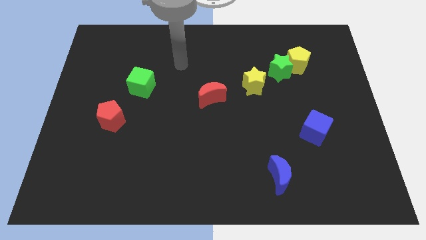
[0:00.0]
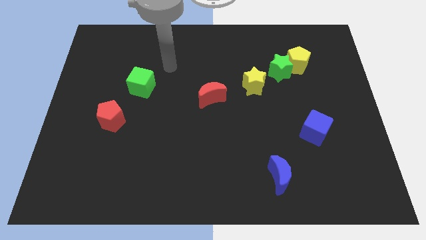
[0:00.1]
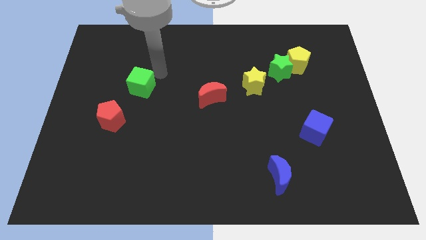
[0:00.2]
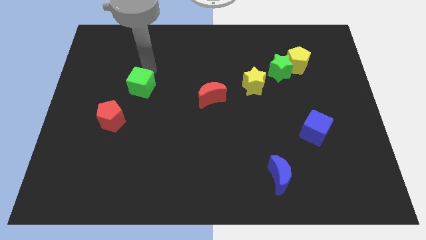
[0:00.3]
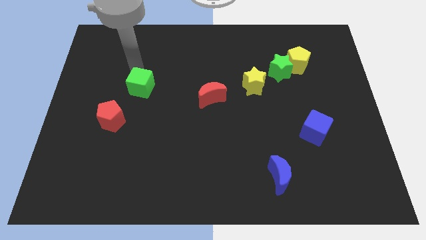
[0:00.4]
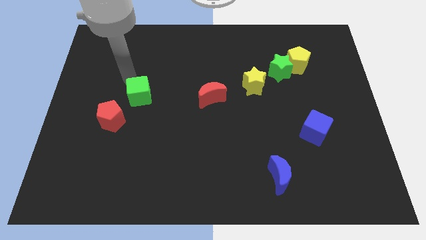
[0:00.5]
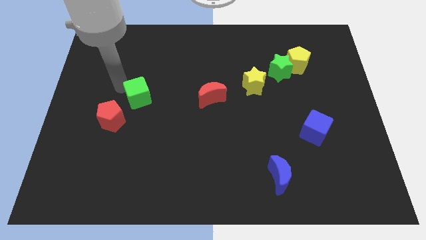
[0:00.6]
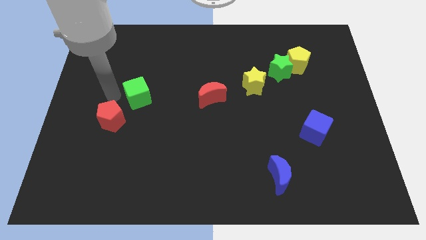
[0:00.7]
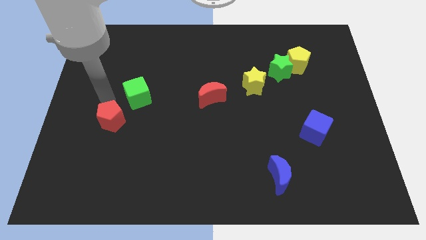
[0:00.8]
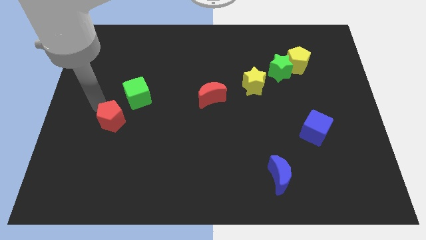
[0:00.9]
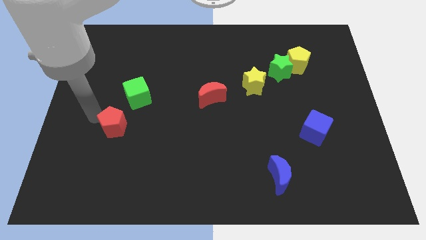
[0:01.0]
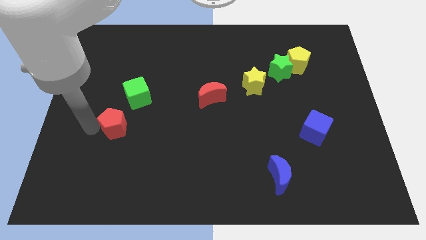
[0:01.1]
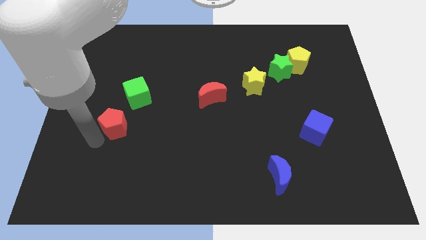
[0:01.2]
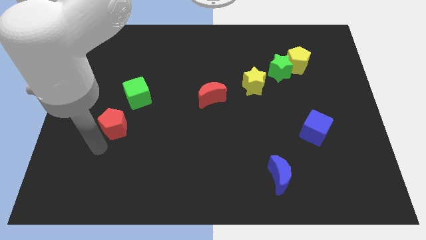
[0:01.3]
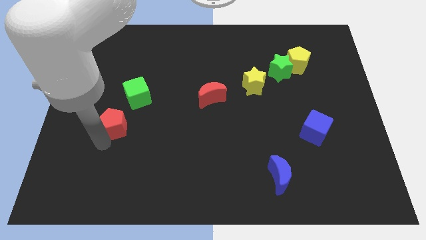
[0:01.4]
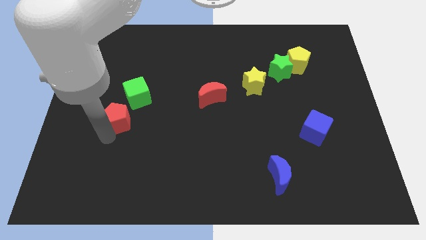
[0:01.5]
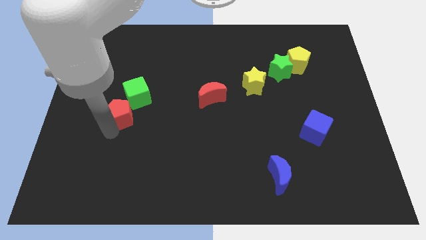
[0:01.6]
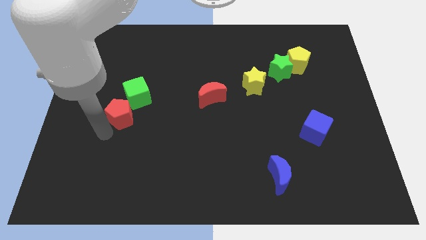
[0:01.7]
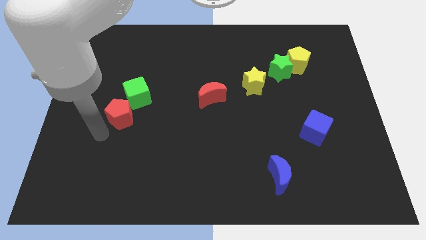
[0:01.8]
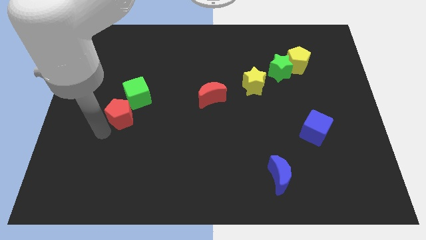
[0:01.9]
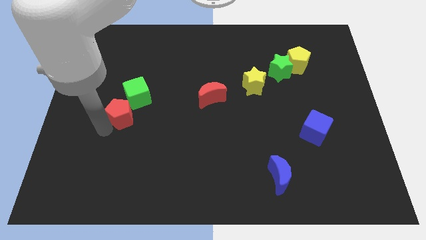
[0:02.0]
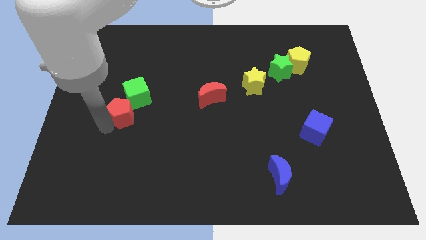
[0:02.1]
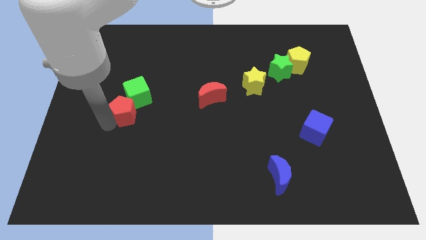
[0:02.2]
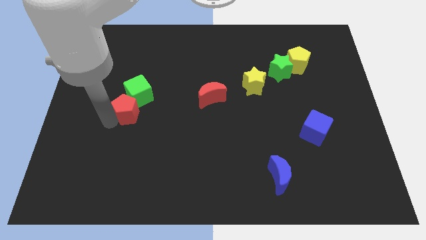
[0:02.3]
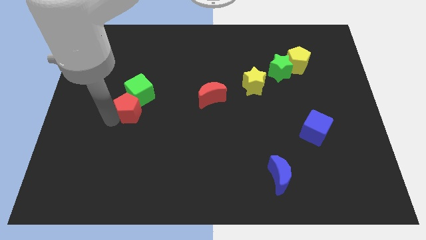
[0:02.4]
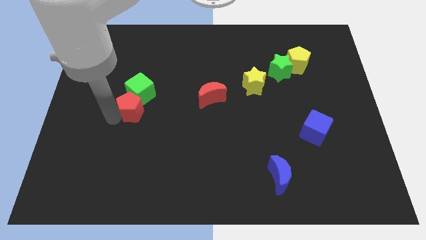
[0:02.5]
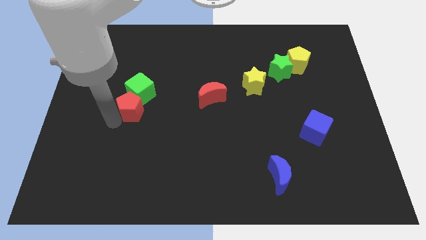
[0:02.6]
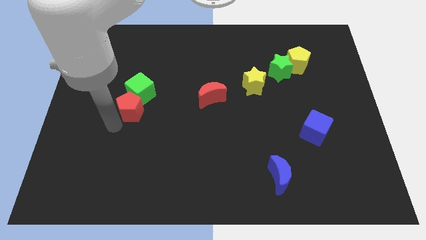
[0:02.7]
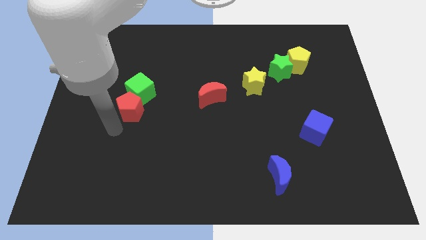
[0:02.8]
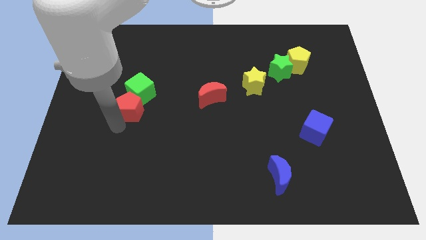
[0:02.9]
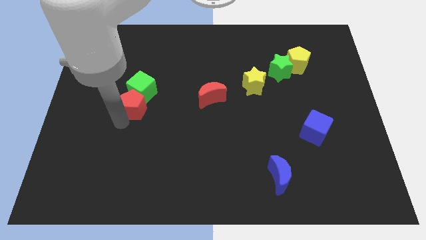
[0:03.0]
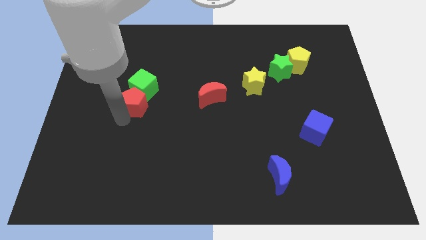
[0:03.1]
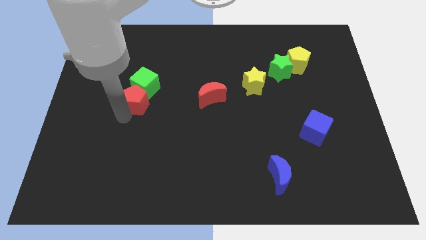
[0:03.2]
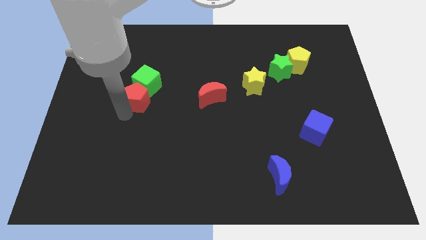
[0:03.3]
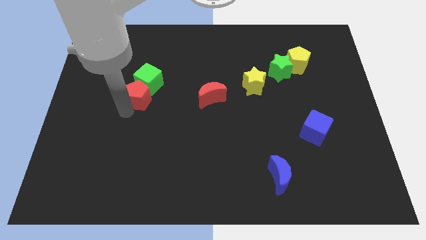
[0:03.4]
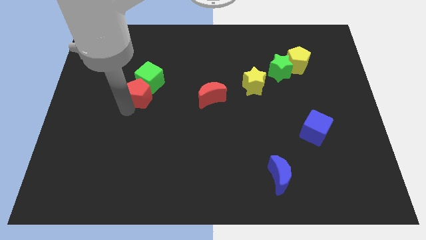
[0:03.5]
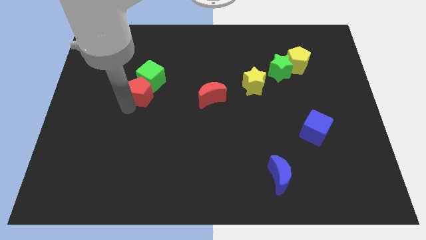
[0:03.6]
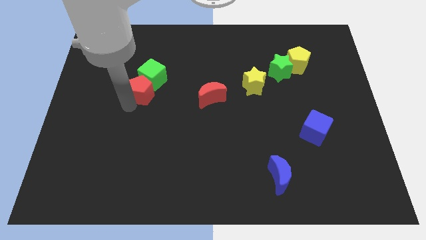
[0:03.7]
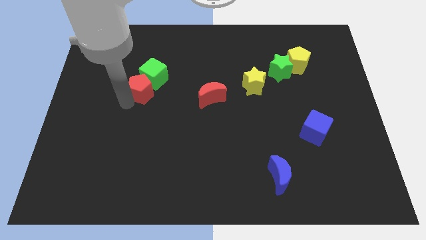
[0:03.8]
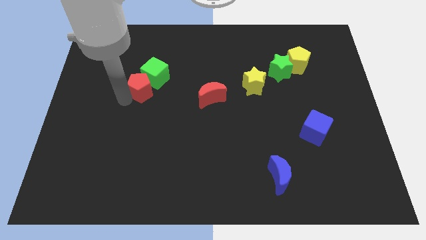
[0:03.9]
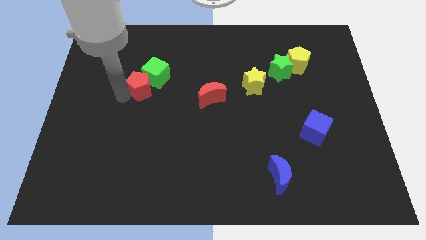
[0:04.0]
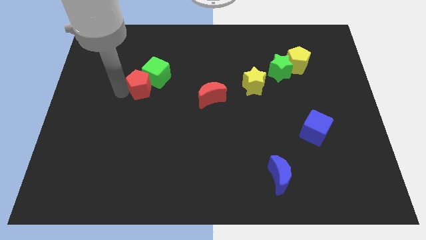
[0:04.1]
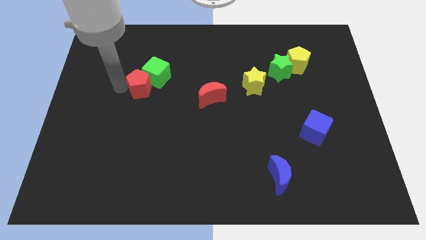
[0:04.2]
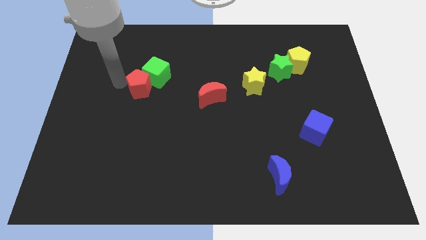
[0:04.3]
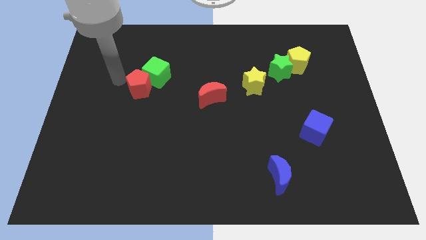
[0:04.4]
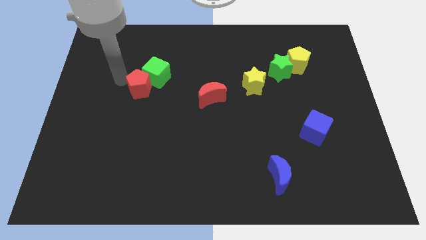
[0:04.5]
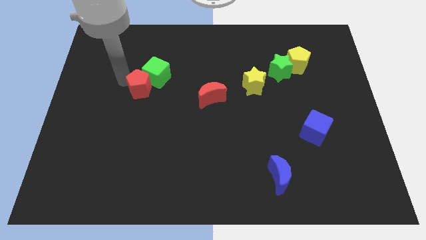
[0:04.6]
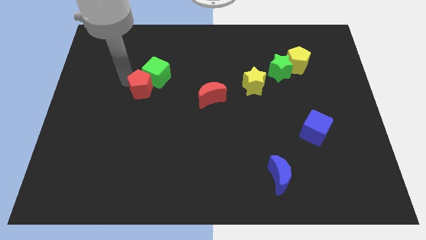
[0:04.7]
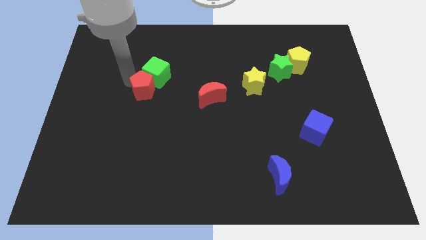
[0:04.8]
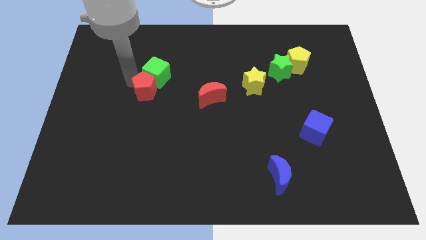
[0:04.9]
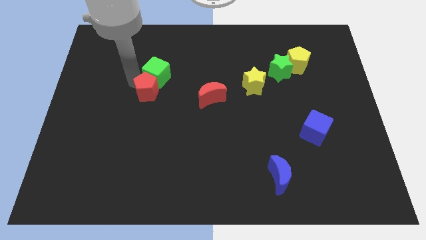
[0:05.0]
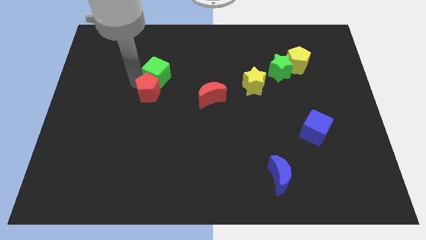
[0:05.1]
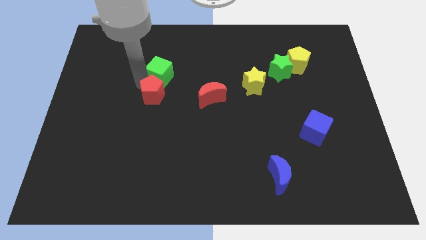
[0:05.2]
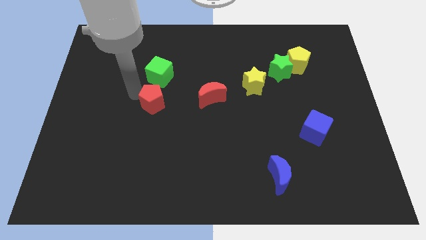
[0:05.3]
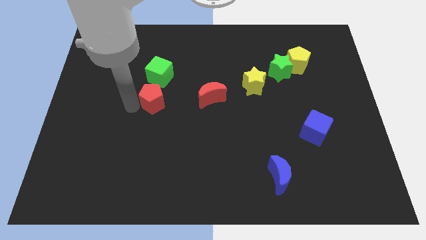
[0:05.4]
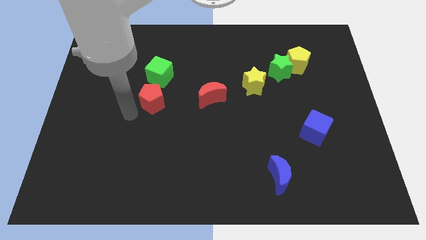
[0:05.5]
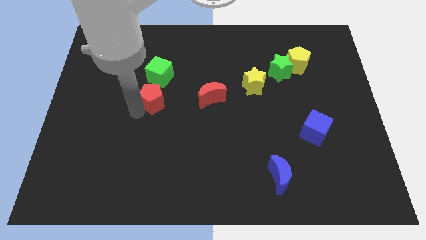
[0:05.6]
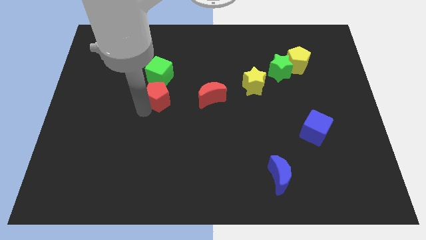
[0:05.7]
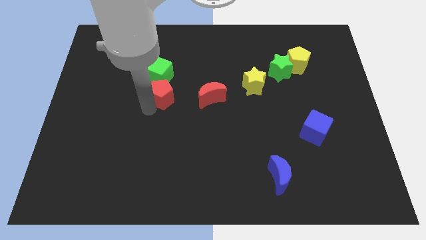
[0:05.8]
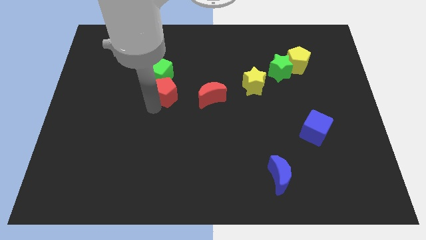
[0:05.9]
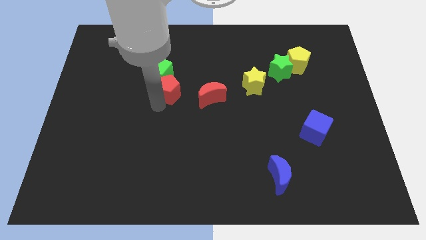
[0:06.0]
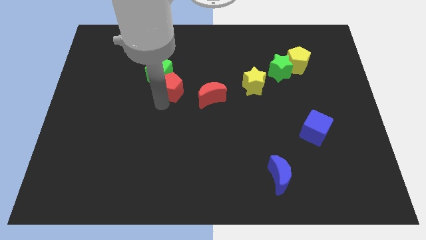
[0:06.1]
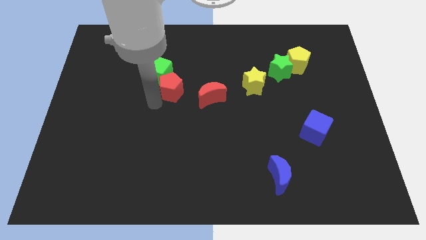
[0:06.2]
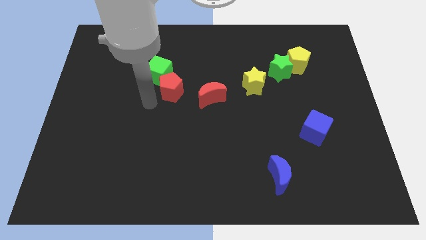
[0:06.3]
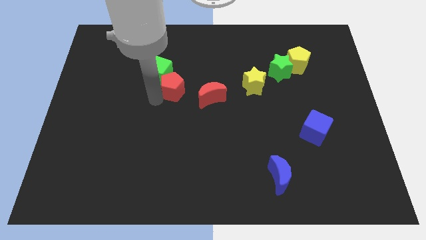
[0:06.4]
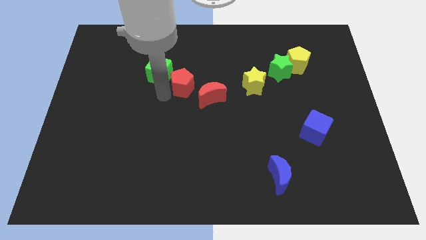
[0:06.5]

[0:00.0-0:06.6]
put the red pentagon to the right of the green cube
